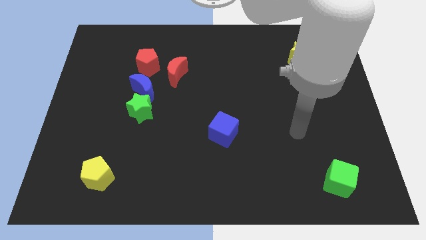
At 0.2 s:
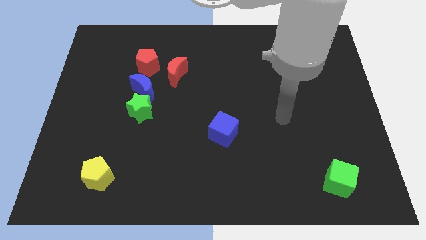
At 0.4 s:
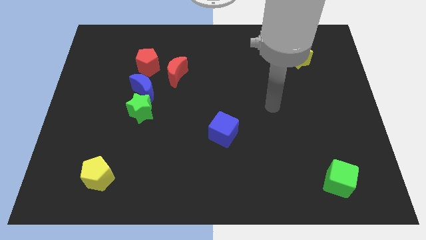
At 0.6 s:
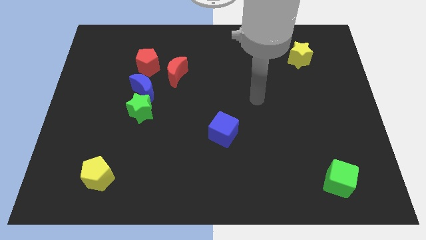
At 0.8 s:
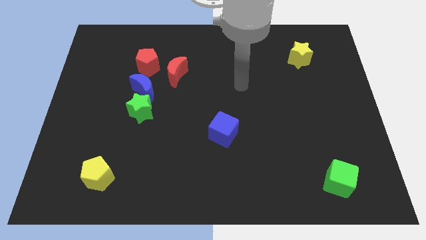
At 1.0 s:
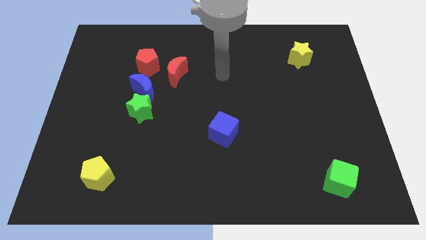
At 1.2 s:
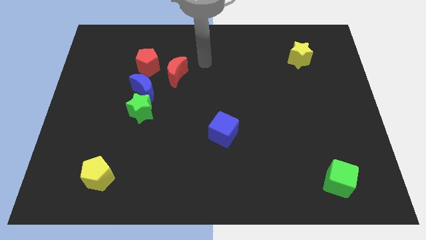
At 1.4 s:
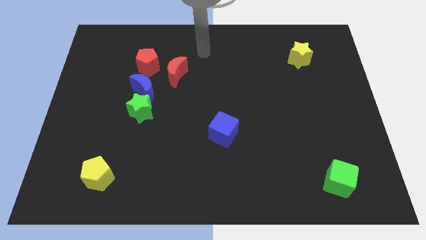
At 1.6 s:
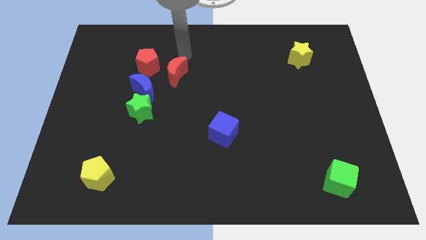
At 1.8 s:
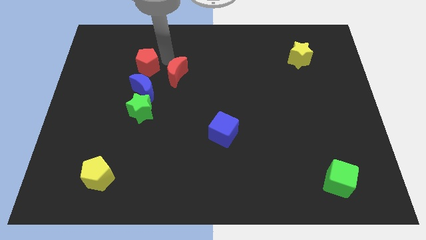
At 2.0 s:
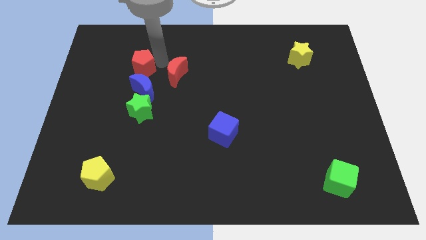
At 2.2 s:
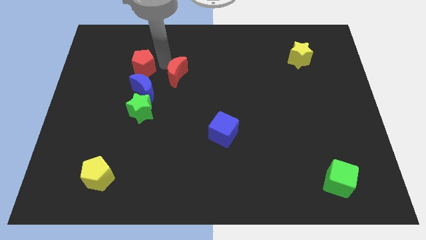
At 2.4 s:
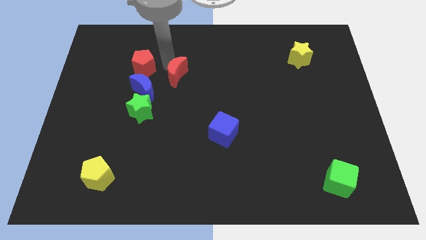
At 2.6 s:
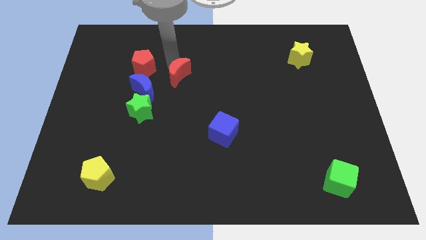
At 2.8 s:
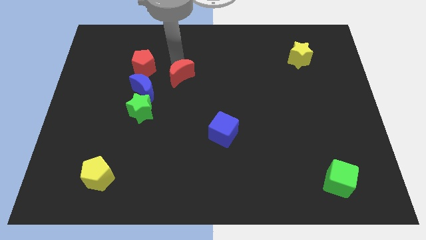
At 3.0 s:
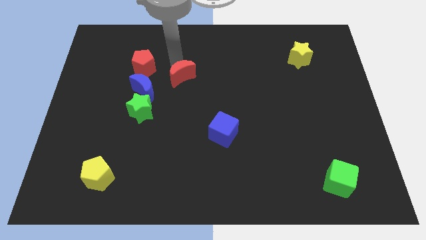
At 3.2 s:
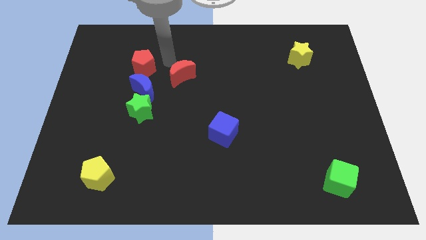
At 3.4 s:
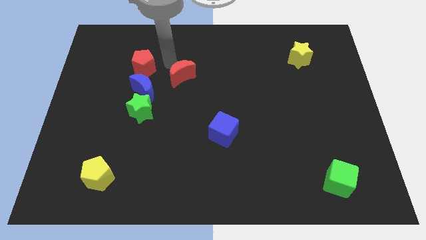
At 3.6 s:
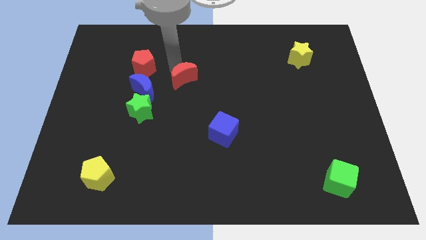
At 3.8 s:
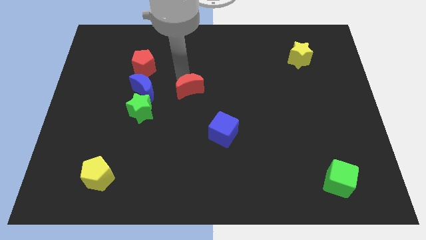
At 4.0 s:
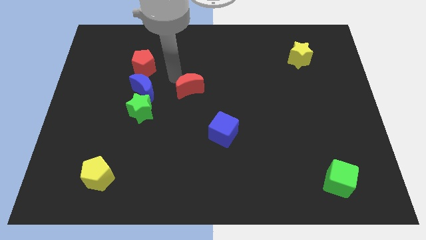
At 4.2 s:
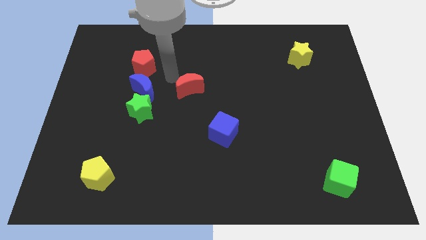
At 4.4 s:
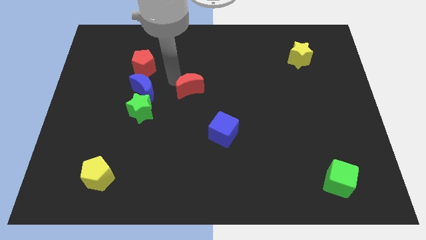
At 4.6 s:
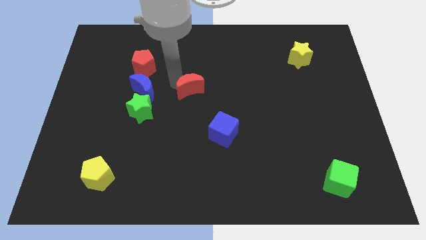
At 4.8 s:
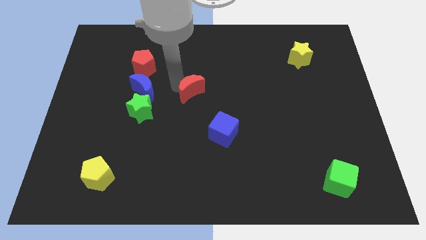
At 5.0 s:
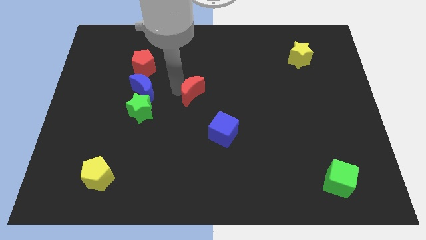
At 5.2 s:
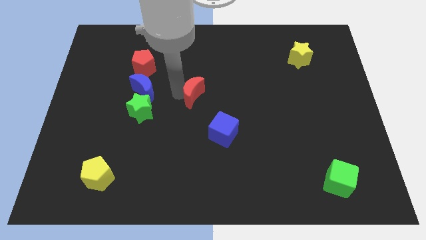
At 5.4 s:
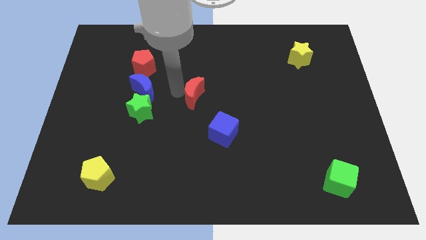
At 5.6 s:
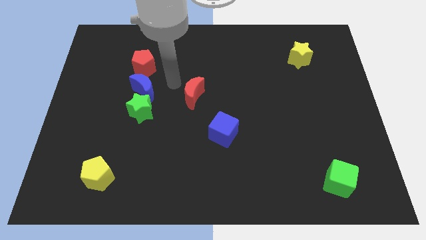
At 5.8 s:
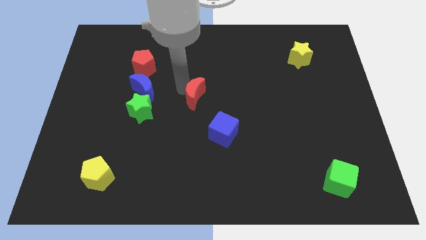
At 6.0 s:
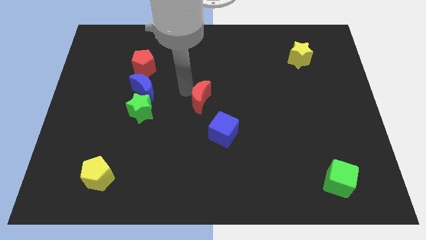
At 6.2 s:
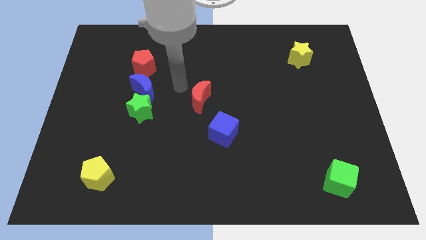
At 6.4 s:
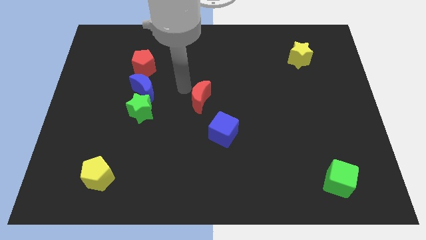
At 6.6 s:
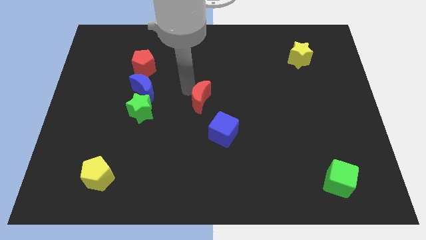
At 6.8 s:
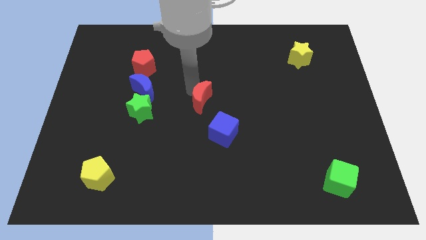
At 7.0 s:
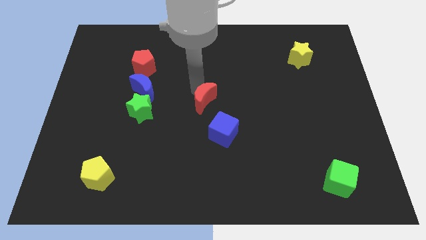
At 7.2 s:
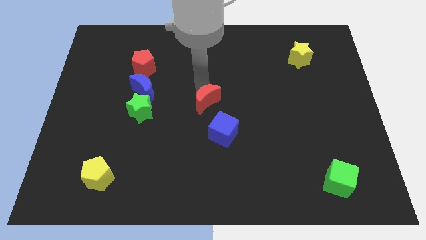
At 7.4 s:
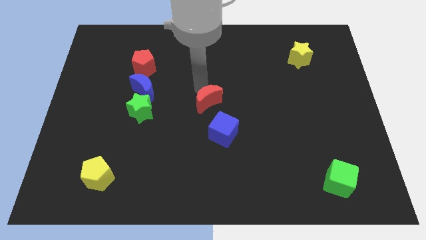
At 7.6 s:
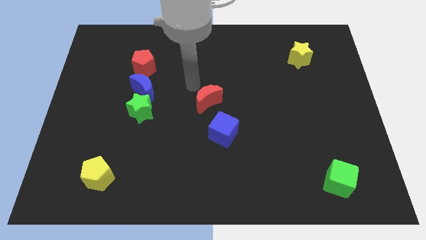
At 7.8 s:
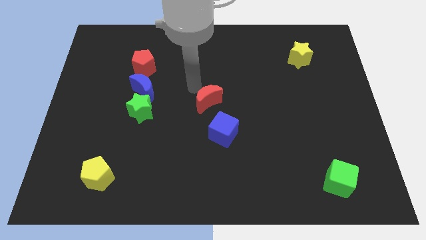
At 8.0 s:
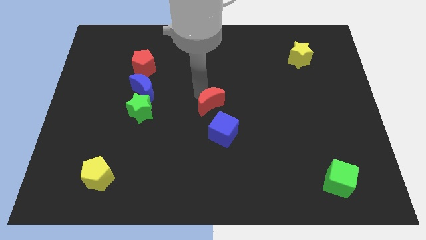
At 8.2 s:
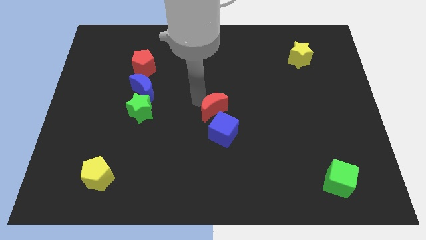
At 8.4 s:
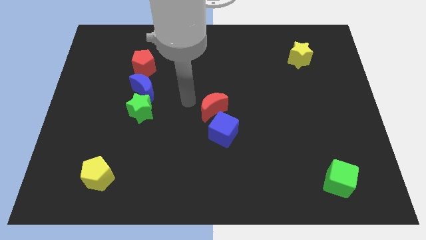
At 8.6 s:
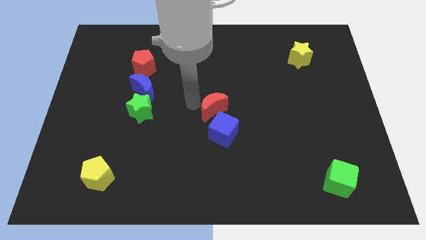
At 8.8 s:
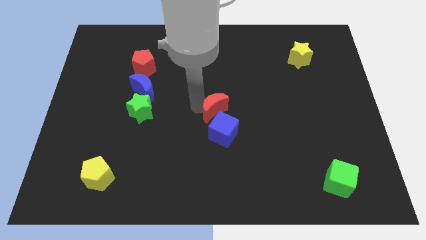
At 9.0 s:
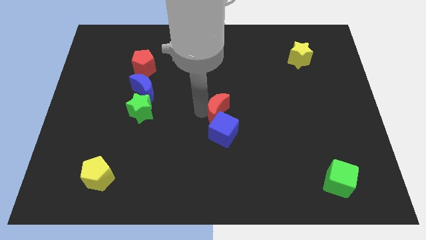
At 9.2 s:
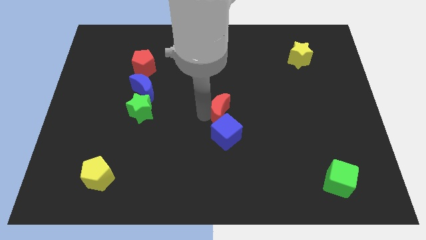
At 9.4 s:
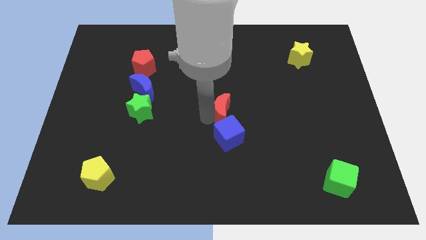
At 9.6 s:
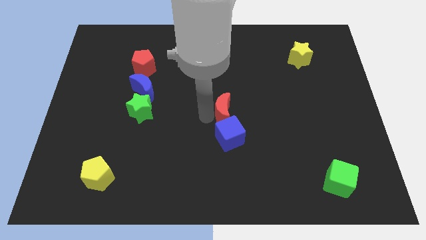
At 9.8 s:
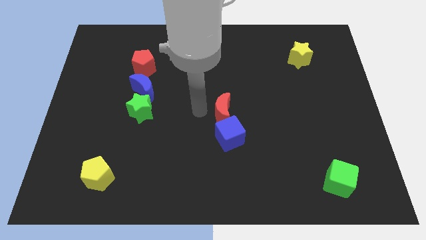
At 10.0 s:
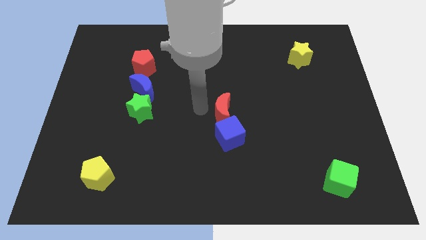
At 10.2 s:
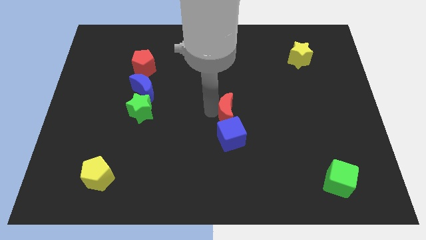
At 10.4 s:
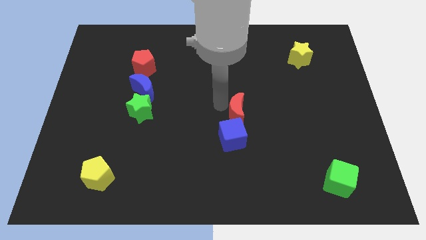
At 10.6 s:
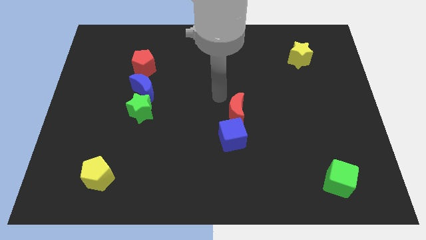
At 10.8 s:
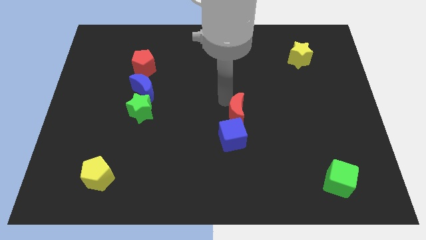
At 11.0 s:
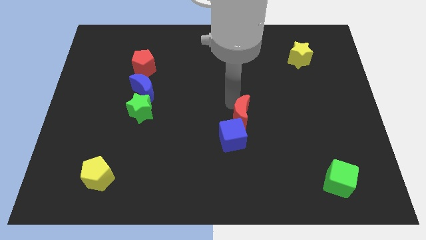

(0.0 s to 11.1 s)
push the red moon downwards and then to the right

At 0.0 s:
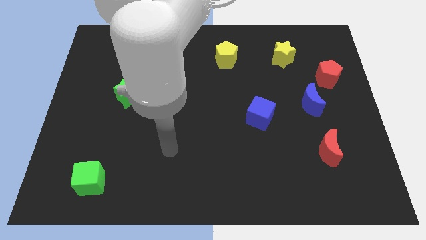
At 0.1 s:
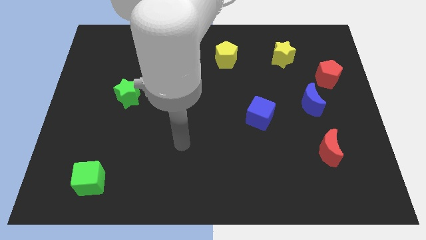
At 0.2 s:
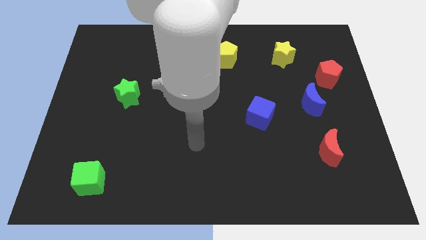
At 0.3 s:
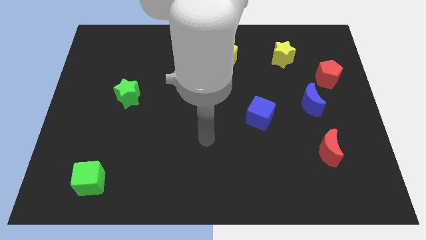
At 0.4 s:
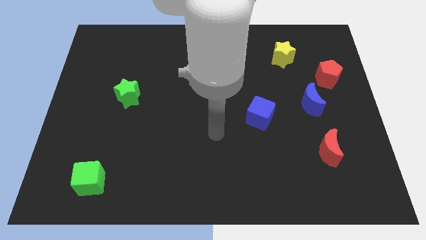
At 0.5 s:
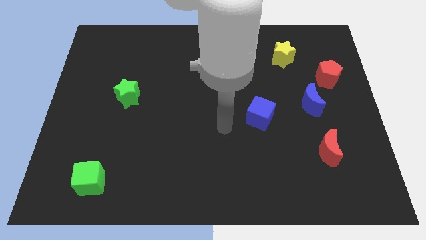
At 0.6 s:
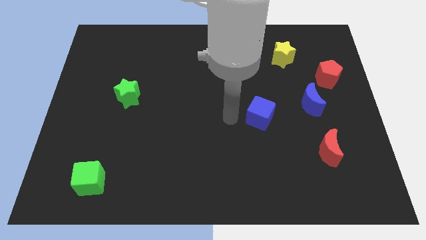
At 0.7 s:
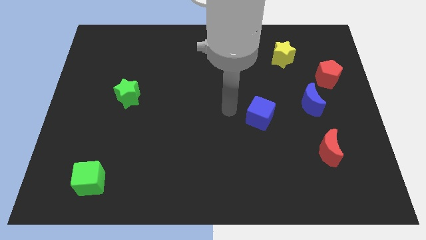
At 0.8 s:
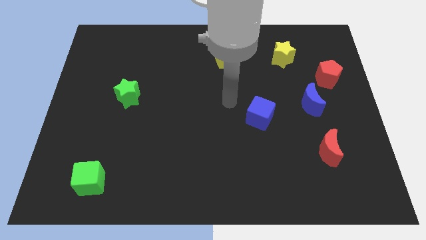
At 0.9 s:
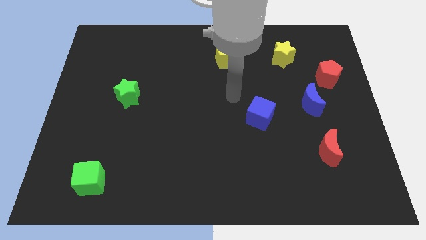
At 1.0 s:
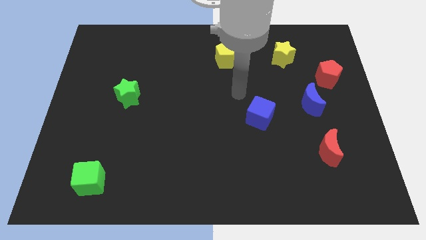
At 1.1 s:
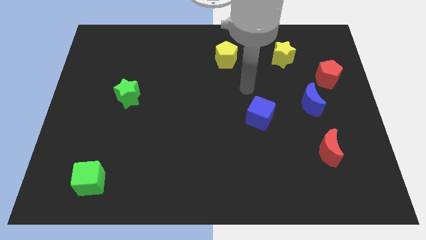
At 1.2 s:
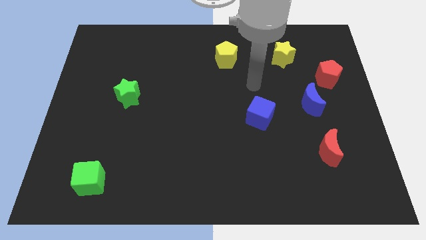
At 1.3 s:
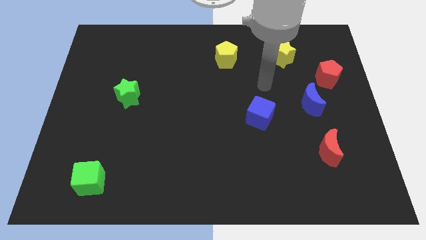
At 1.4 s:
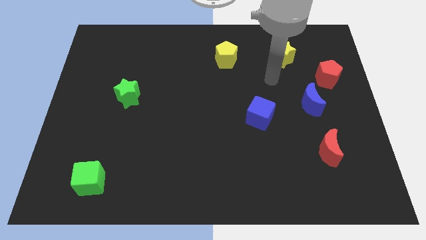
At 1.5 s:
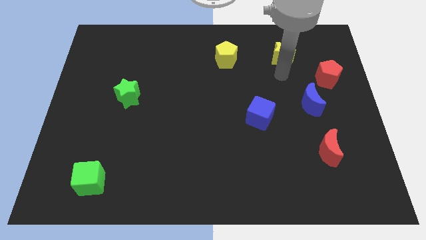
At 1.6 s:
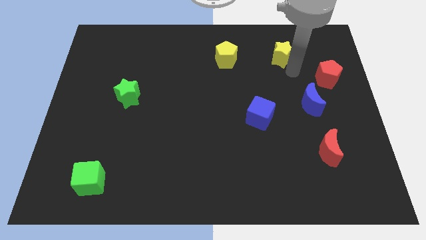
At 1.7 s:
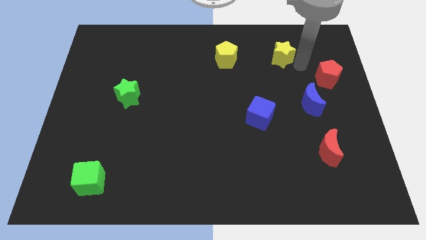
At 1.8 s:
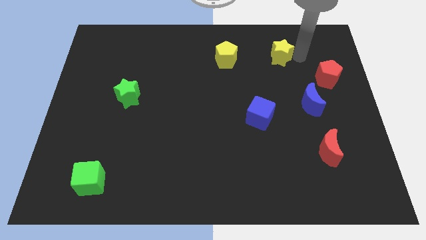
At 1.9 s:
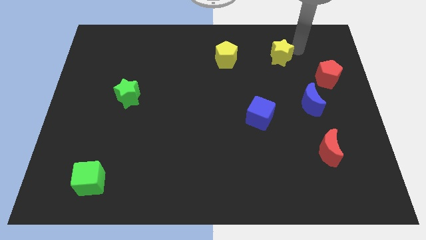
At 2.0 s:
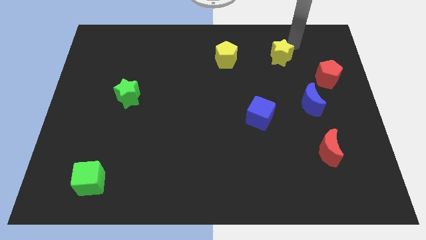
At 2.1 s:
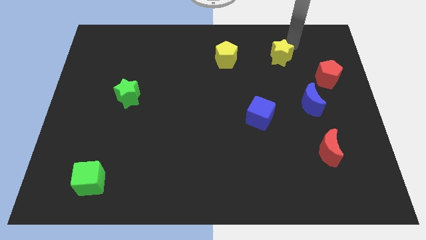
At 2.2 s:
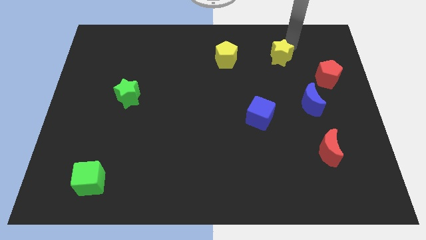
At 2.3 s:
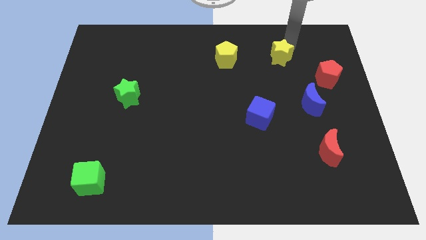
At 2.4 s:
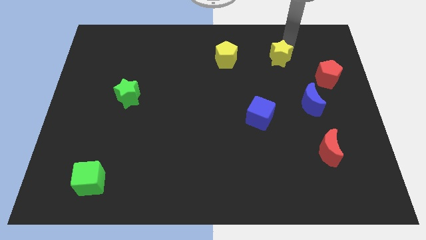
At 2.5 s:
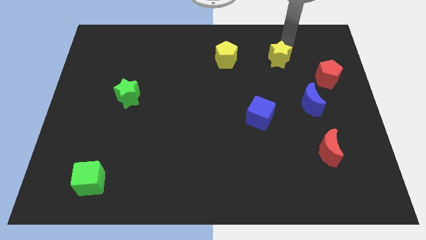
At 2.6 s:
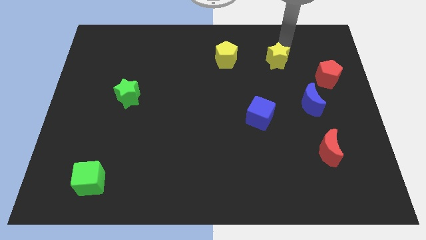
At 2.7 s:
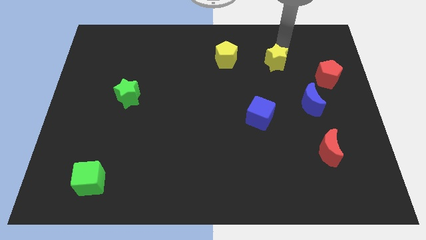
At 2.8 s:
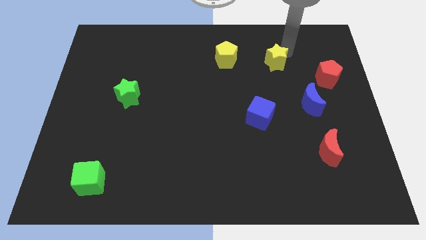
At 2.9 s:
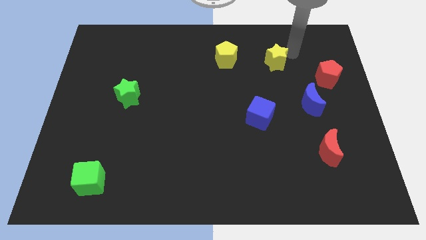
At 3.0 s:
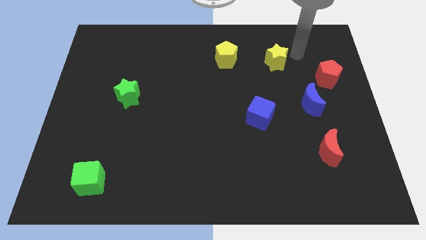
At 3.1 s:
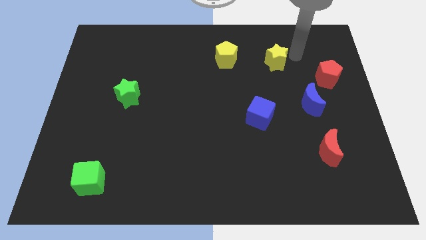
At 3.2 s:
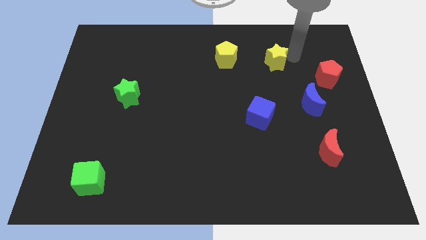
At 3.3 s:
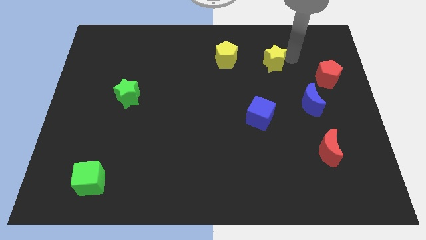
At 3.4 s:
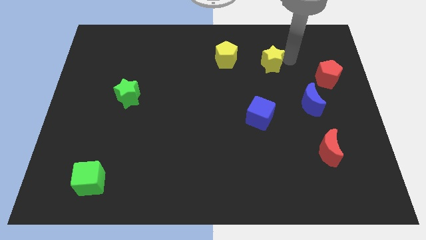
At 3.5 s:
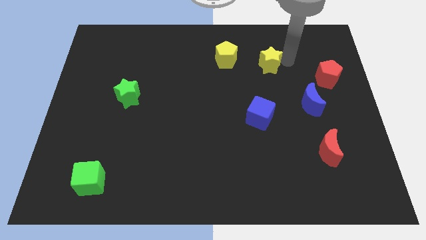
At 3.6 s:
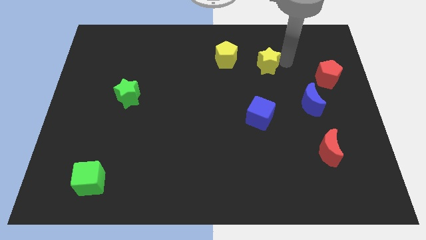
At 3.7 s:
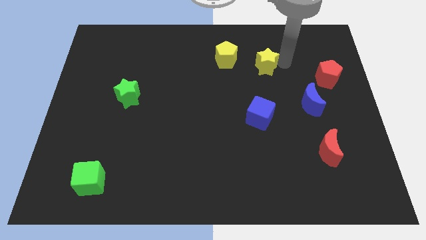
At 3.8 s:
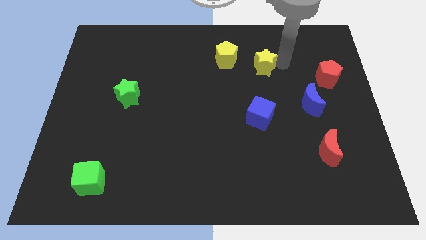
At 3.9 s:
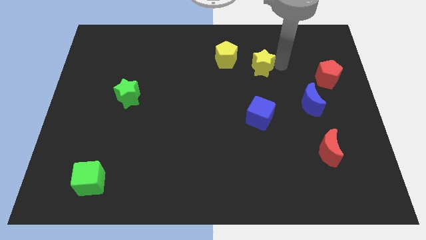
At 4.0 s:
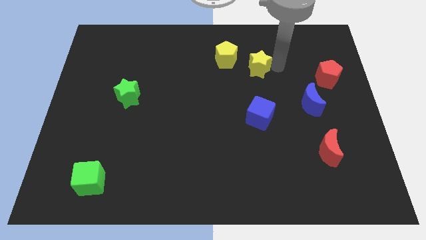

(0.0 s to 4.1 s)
slightly move the yellow star downwards and then to the left
